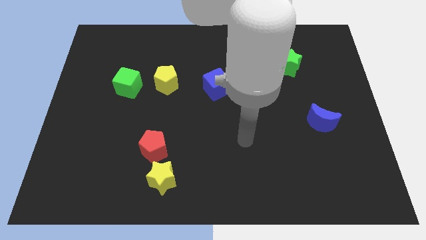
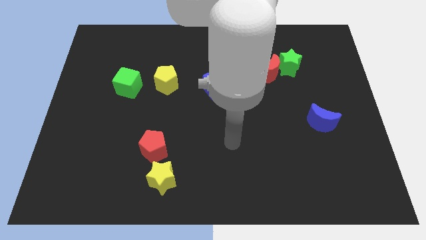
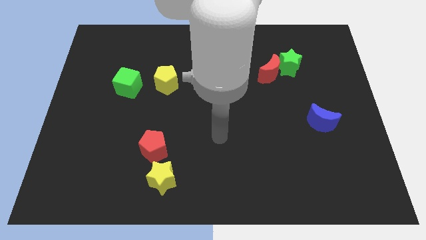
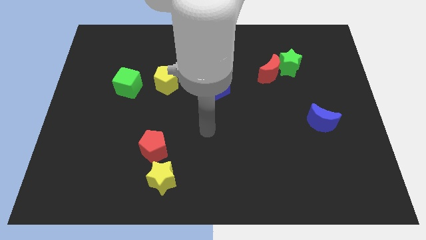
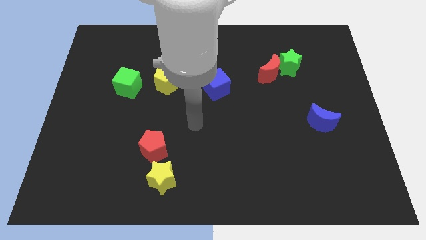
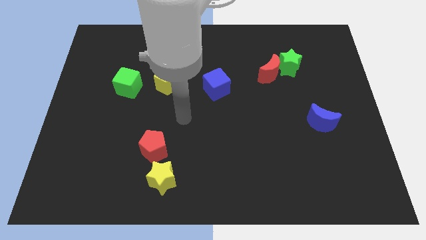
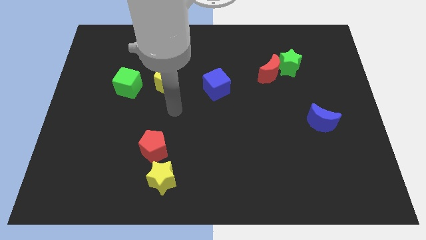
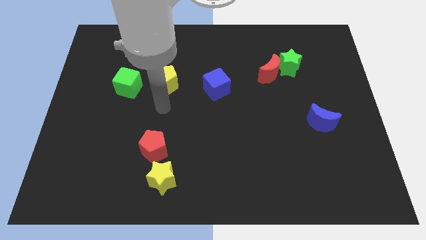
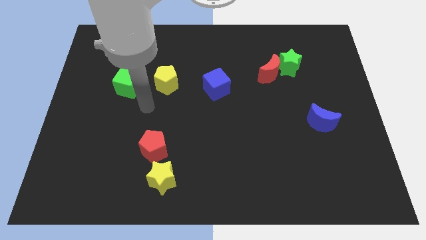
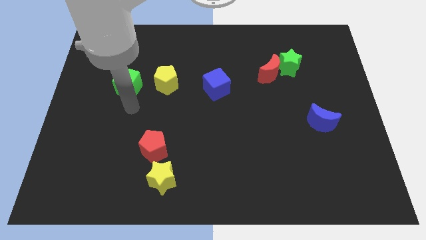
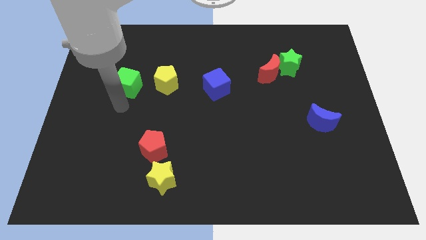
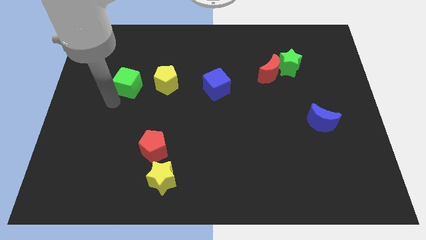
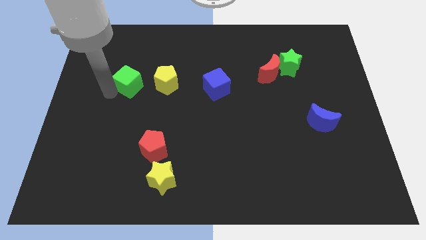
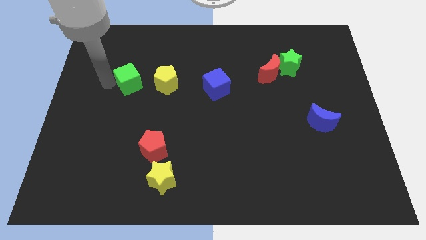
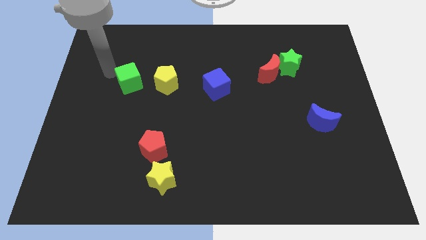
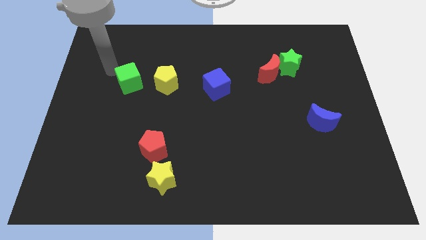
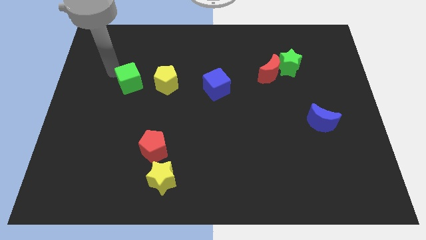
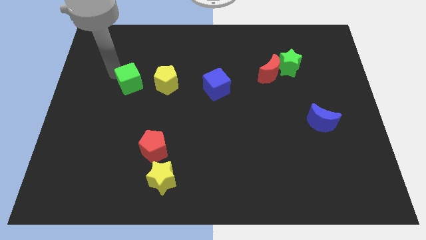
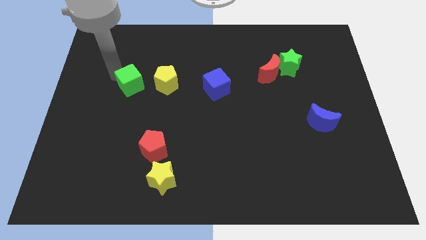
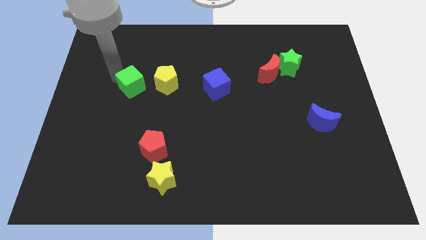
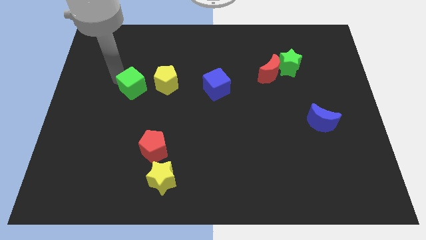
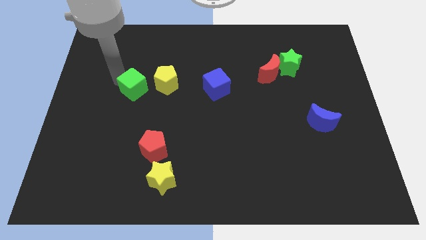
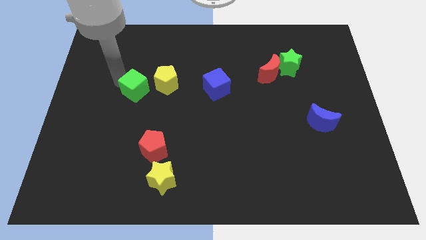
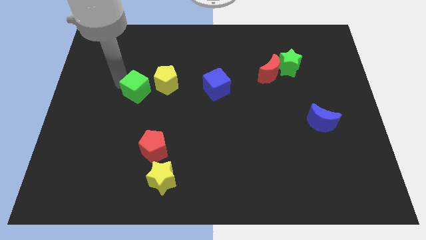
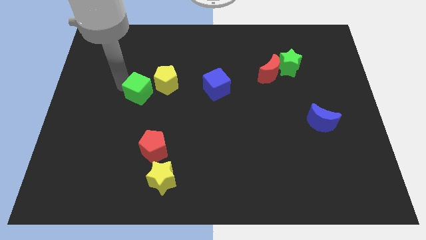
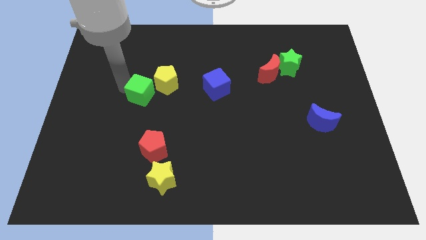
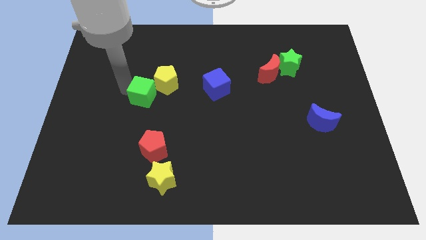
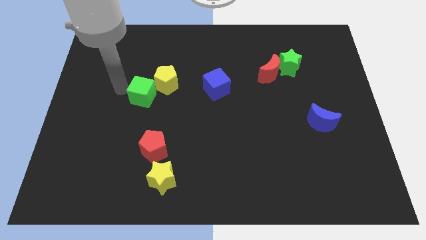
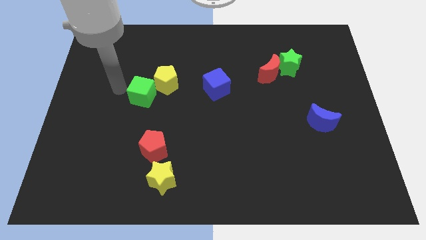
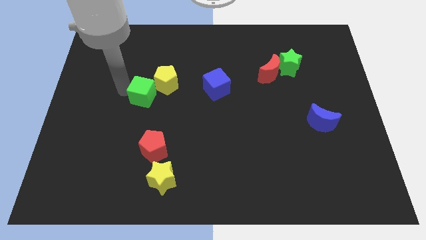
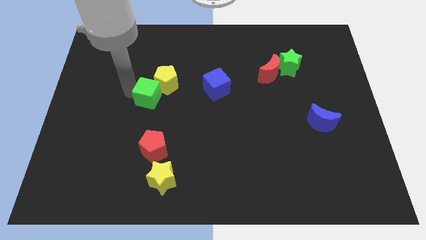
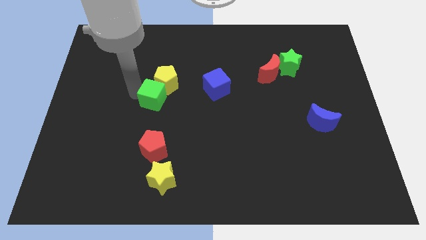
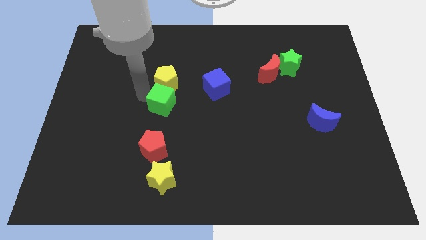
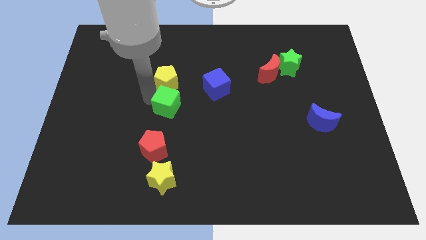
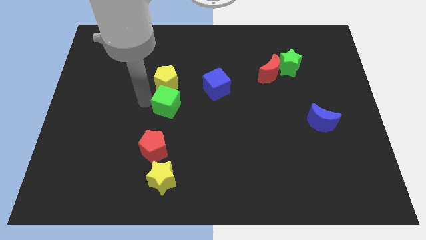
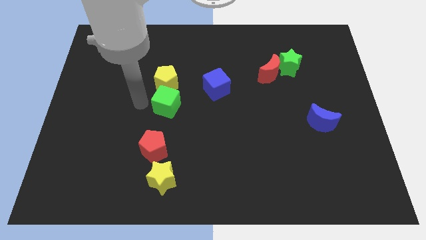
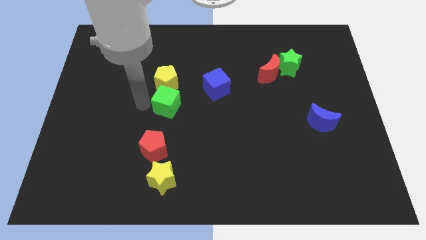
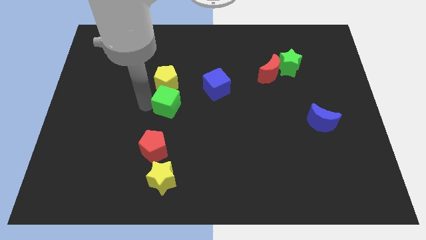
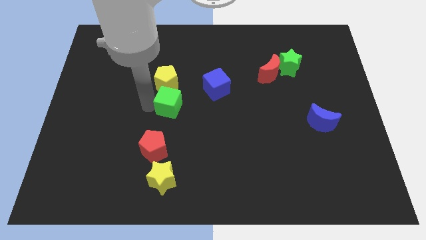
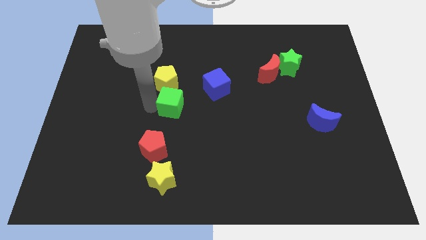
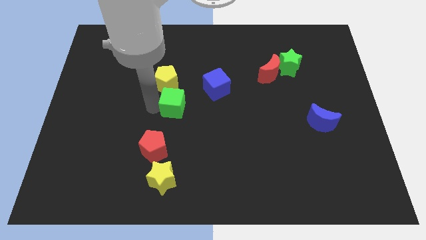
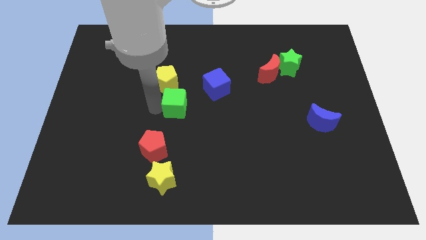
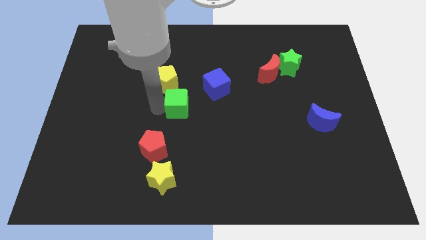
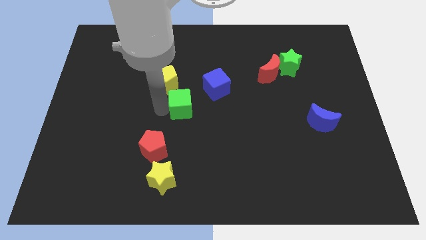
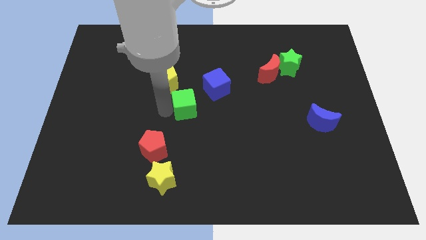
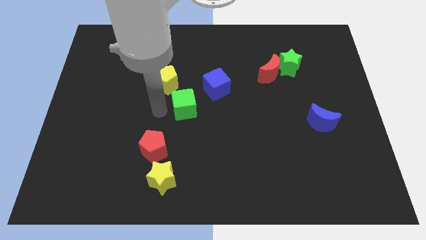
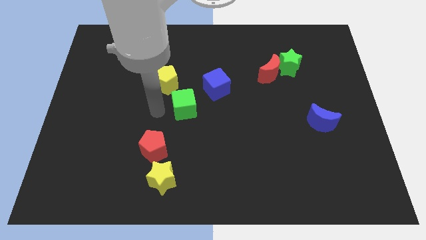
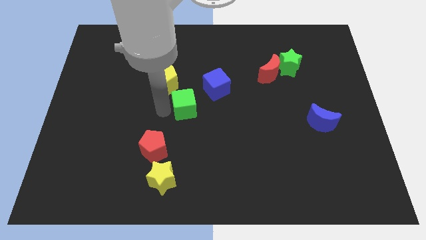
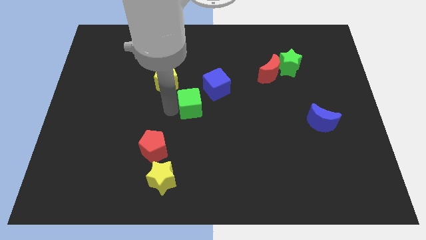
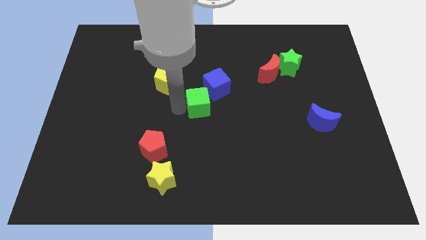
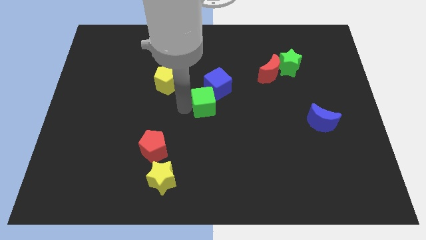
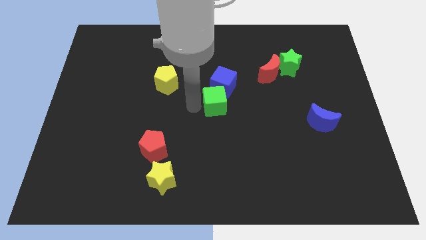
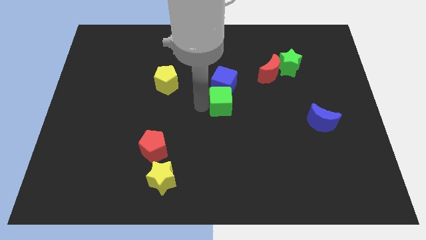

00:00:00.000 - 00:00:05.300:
slide the green cube to the bottom right side of the blue cube

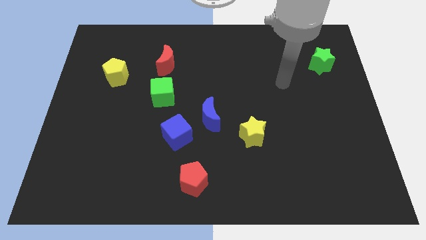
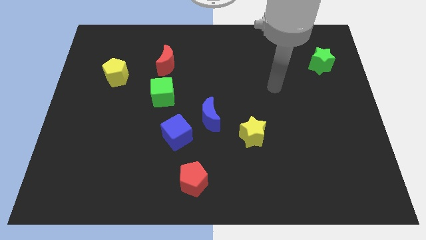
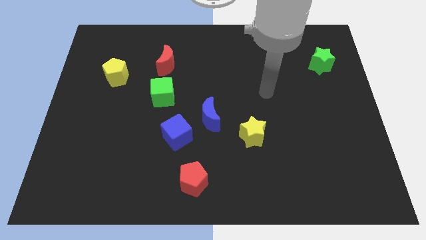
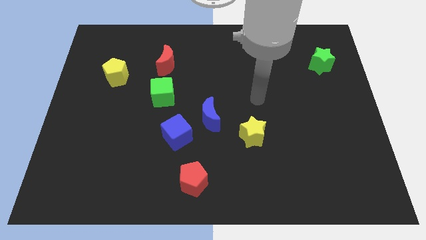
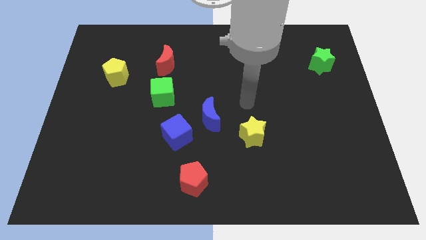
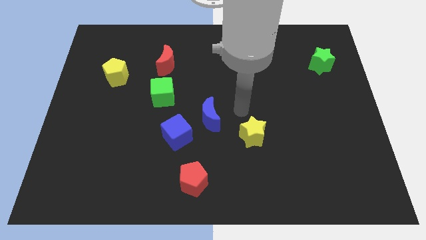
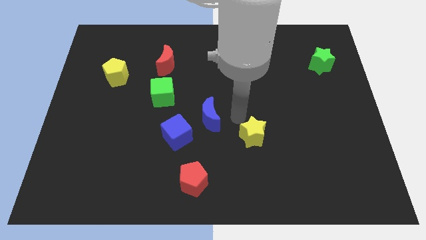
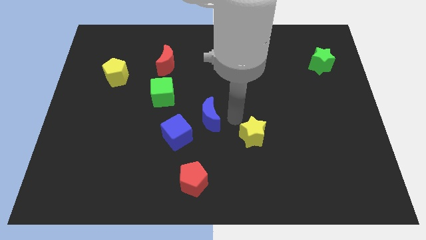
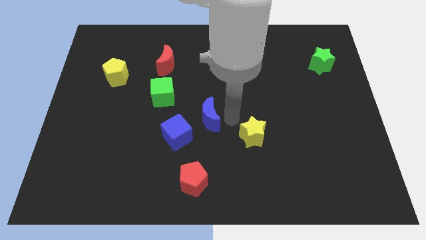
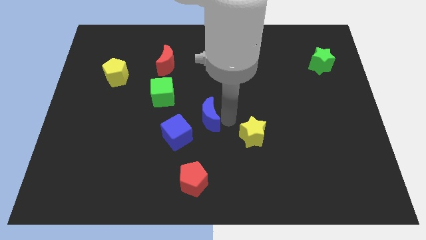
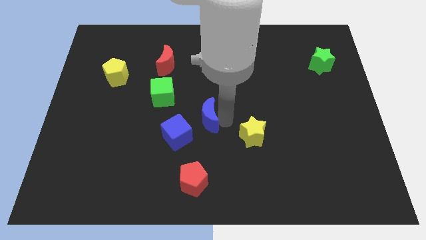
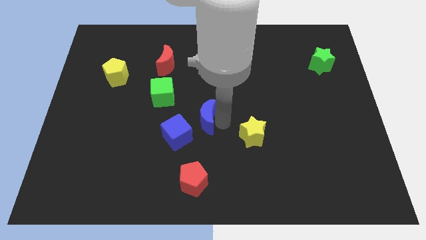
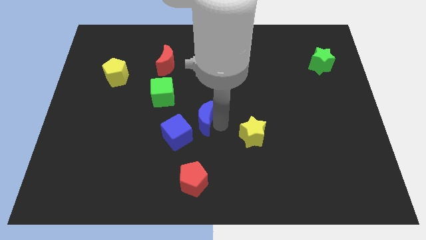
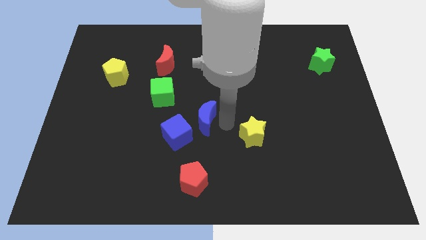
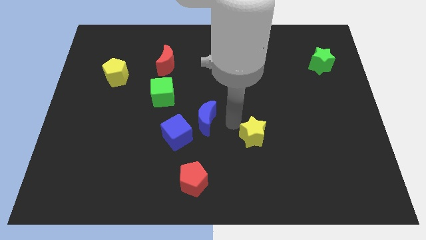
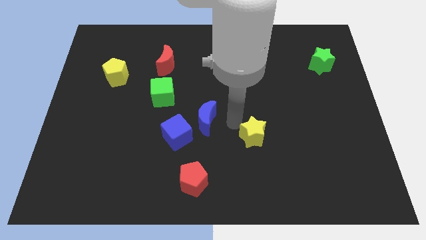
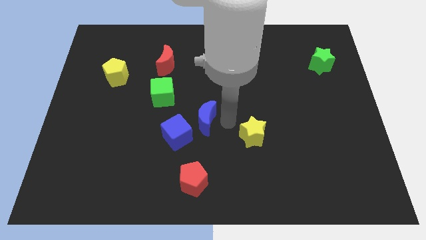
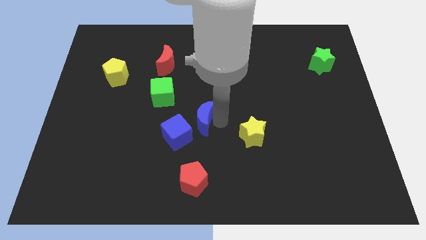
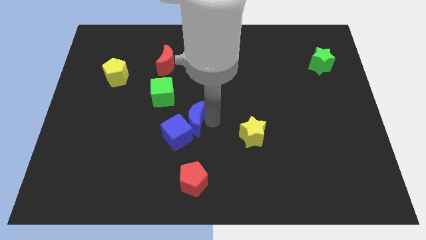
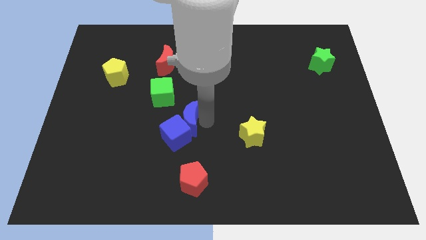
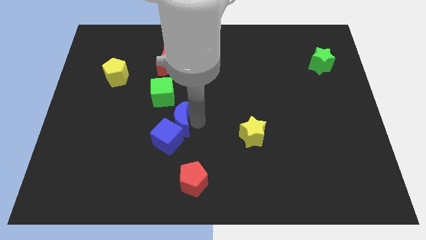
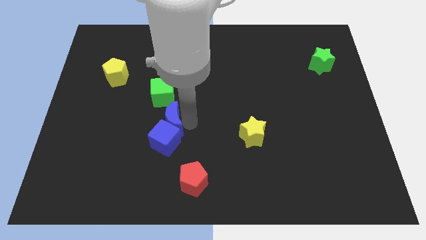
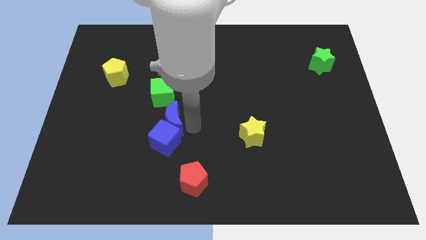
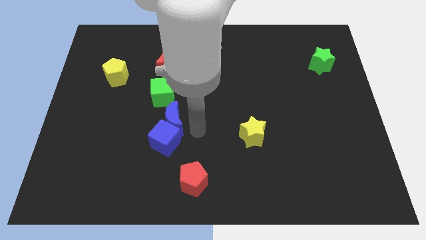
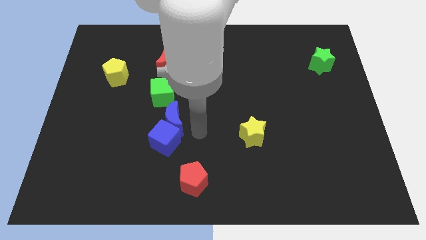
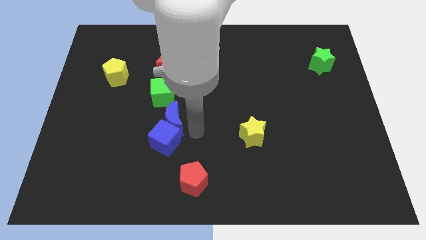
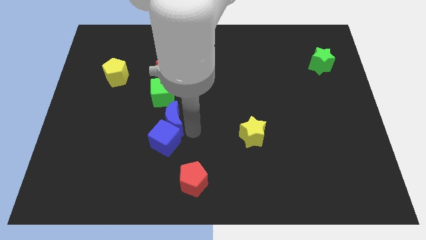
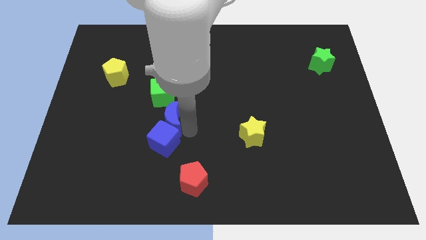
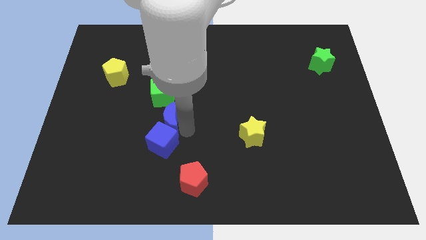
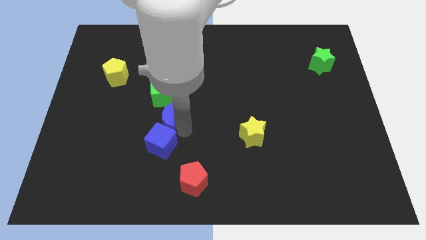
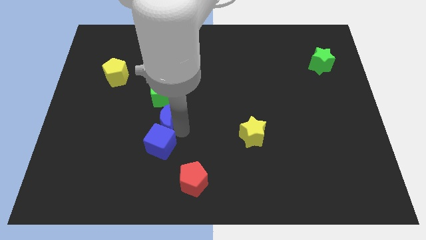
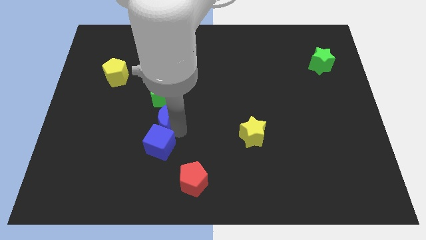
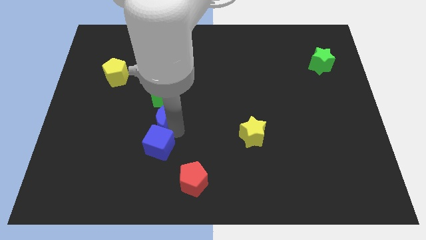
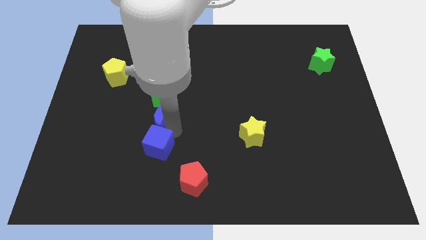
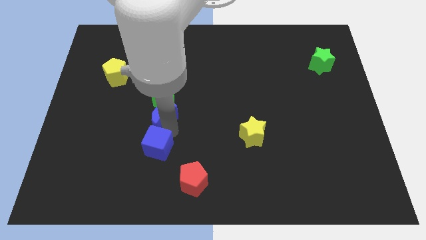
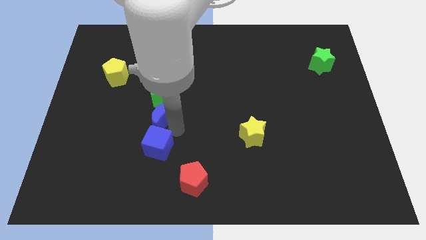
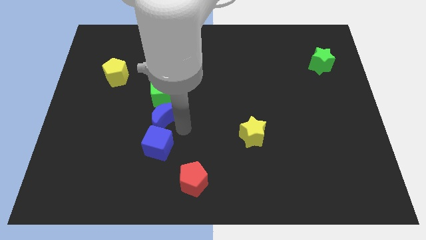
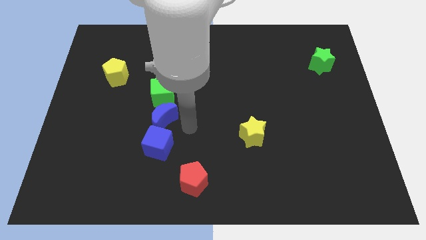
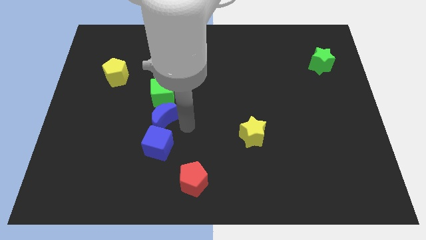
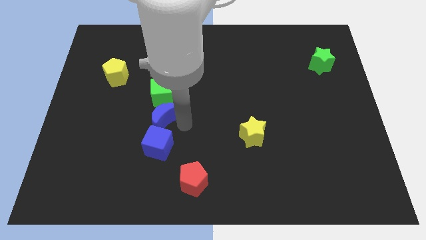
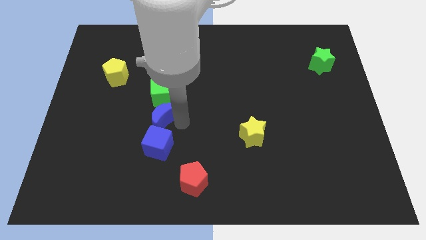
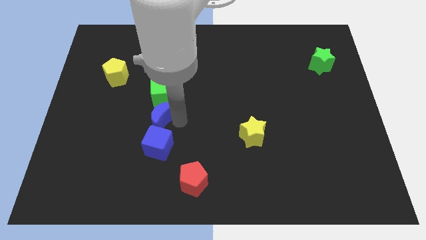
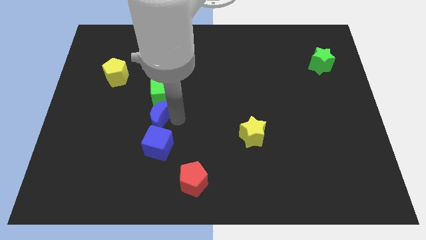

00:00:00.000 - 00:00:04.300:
move the blue moon to the bottom left side of the green cube
